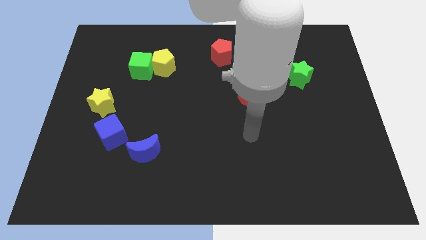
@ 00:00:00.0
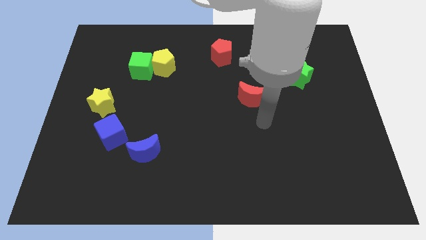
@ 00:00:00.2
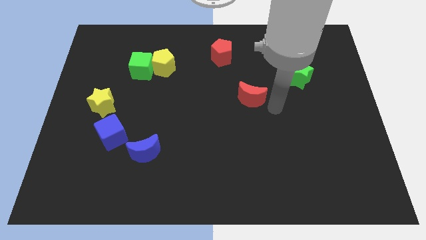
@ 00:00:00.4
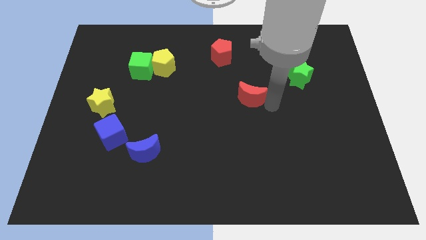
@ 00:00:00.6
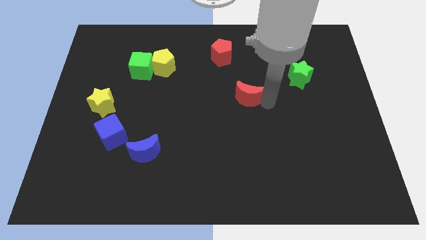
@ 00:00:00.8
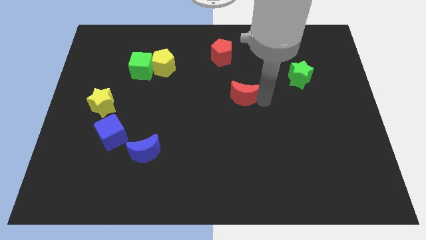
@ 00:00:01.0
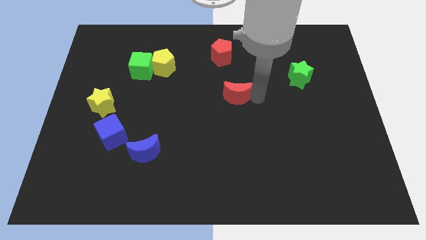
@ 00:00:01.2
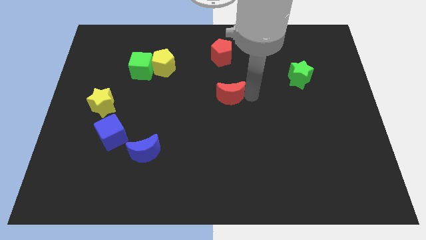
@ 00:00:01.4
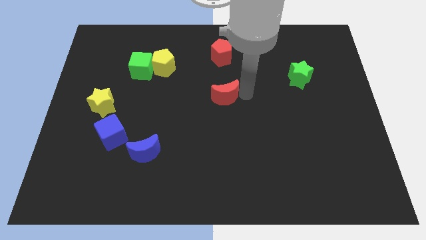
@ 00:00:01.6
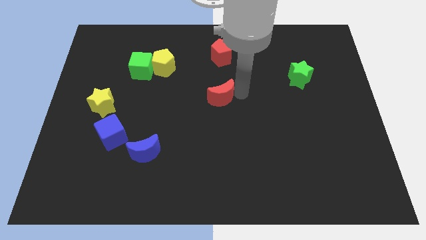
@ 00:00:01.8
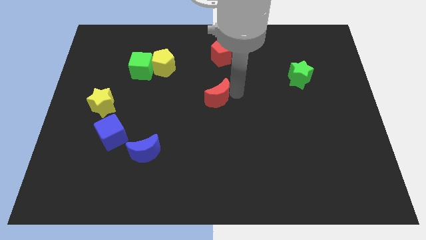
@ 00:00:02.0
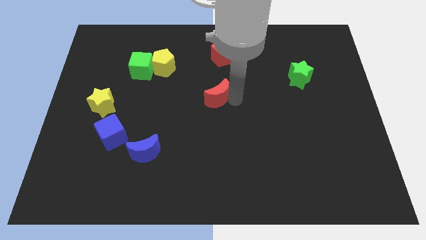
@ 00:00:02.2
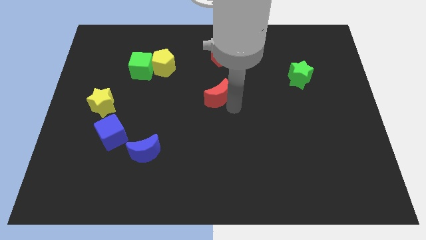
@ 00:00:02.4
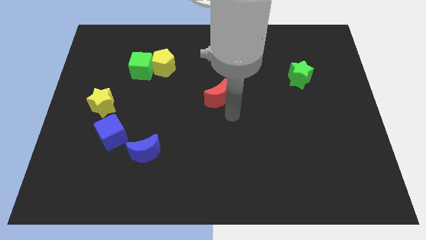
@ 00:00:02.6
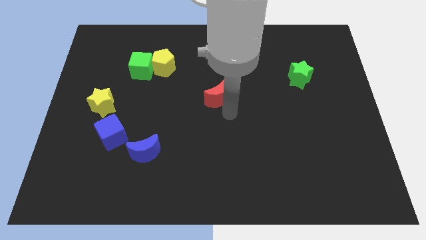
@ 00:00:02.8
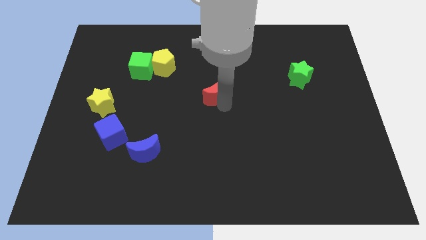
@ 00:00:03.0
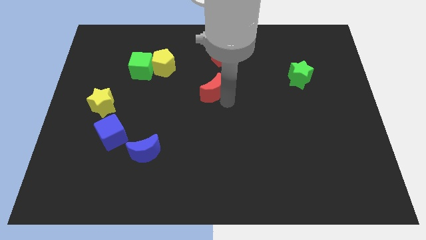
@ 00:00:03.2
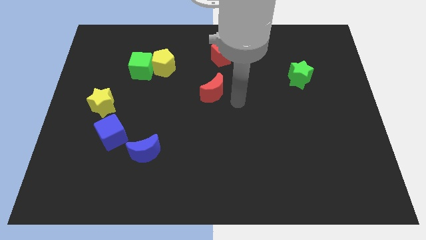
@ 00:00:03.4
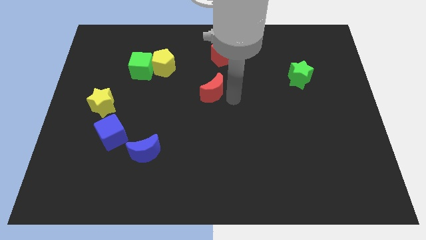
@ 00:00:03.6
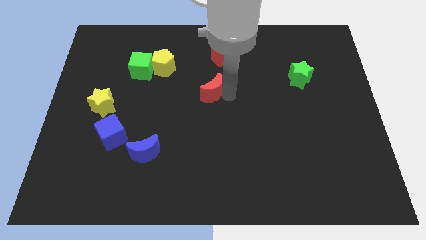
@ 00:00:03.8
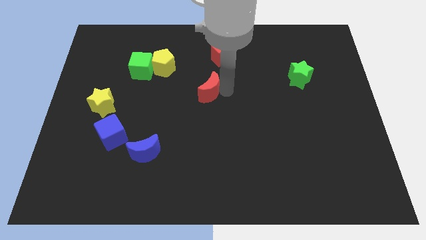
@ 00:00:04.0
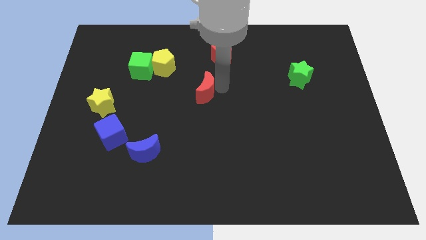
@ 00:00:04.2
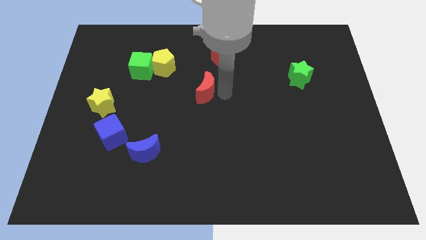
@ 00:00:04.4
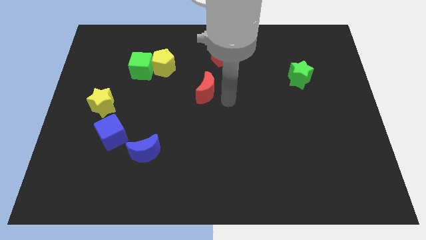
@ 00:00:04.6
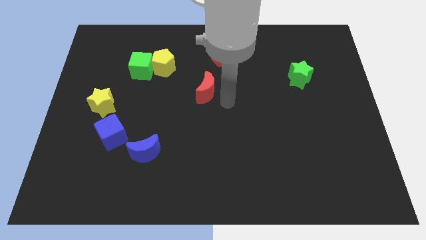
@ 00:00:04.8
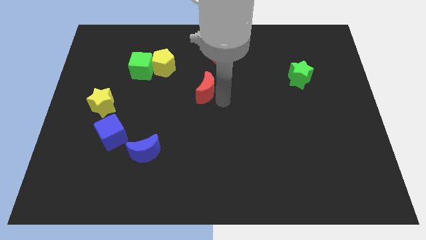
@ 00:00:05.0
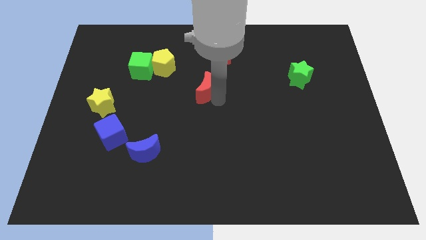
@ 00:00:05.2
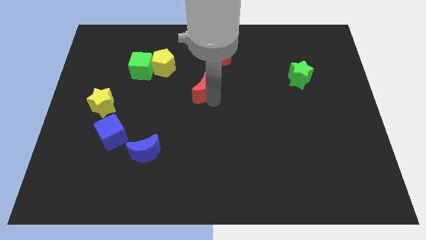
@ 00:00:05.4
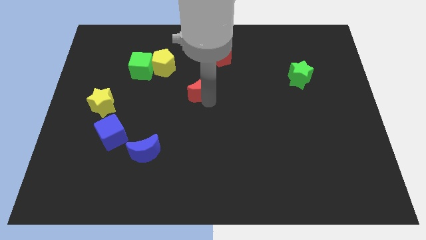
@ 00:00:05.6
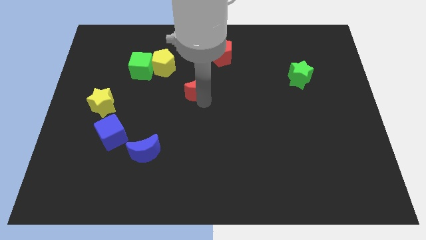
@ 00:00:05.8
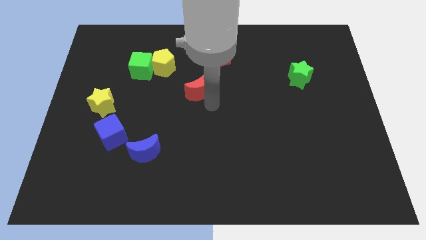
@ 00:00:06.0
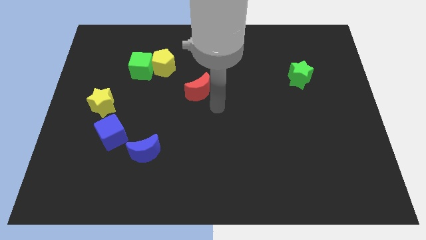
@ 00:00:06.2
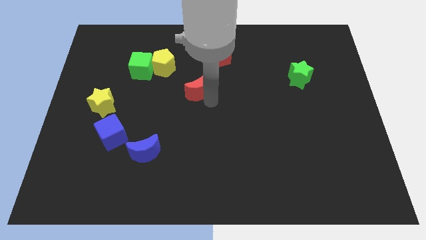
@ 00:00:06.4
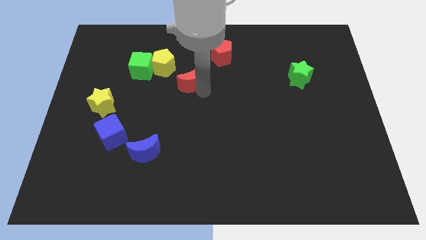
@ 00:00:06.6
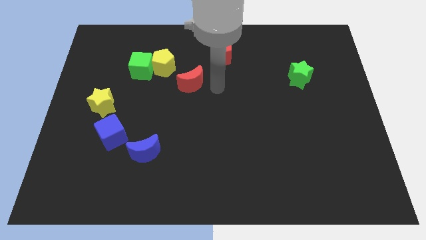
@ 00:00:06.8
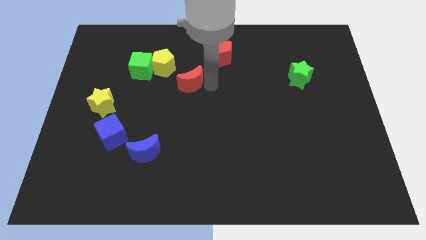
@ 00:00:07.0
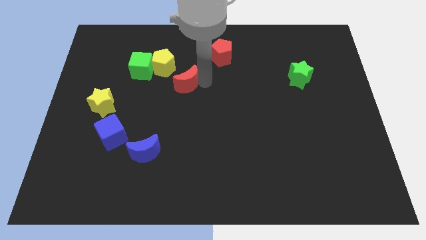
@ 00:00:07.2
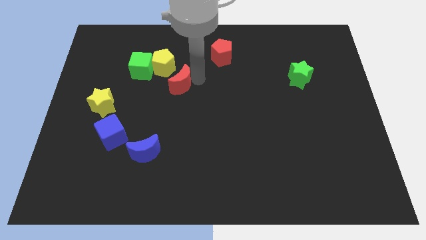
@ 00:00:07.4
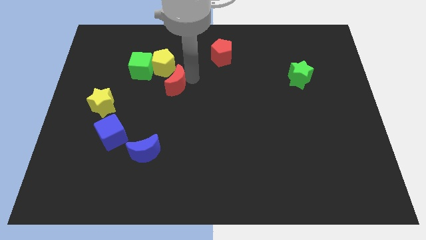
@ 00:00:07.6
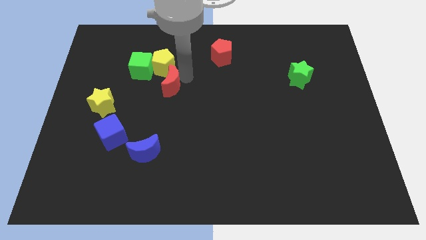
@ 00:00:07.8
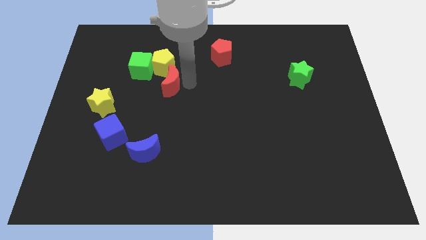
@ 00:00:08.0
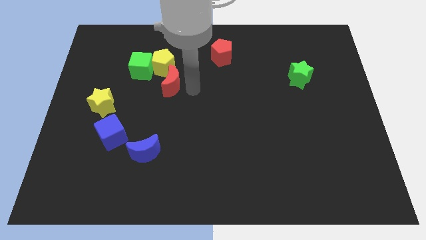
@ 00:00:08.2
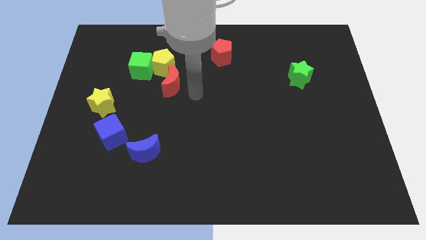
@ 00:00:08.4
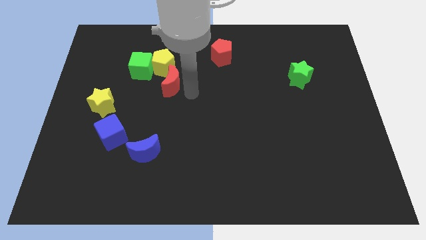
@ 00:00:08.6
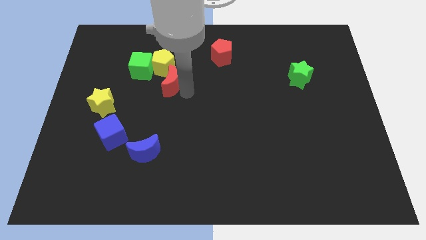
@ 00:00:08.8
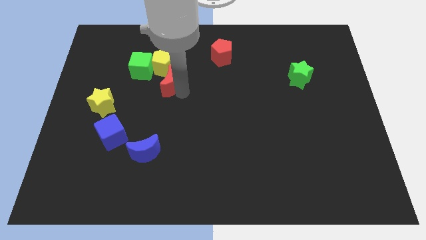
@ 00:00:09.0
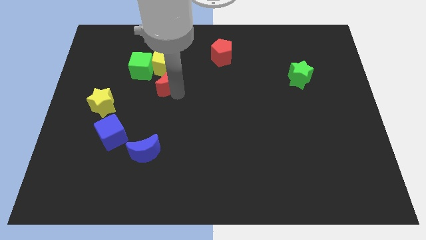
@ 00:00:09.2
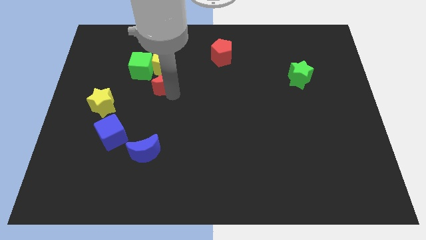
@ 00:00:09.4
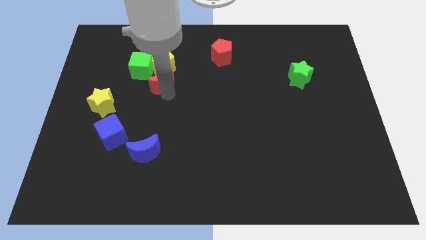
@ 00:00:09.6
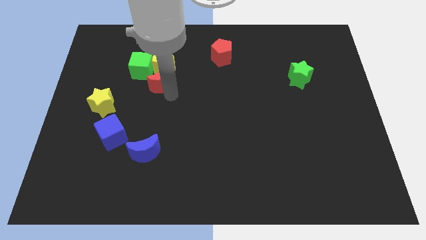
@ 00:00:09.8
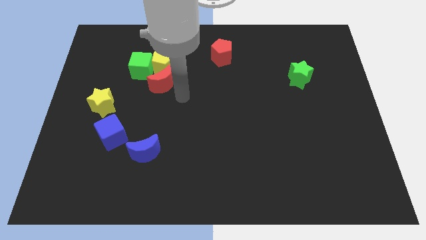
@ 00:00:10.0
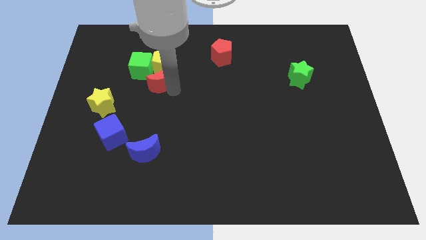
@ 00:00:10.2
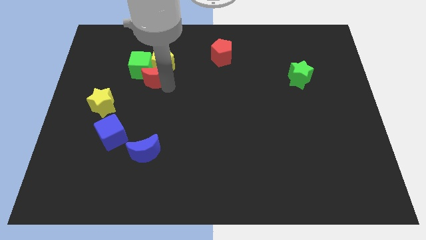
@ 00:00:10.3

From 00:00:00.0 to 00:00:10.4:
push the red moon to the green cube

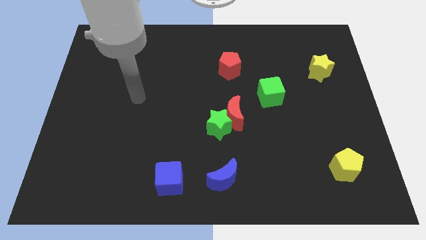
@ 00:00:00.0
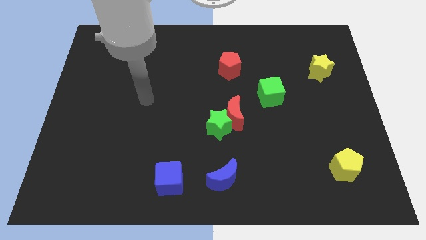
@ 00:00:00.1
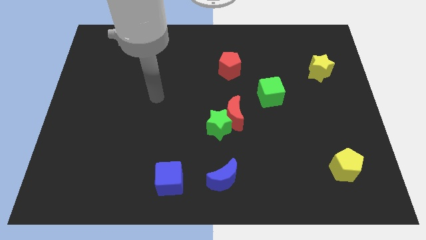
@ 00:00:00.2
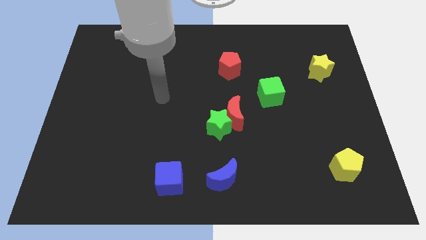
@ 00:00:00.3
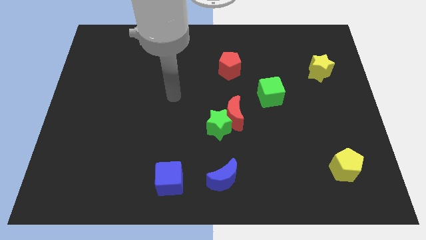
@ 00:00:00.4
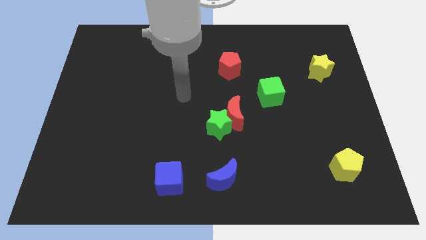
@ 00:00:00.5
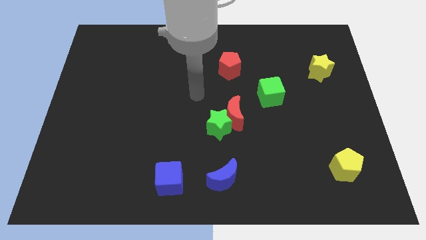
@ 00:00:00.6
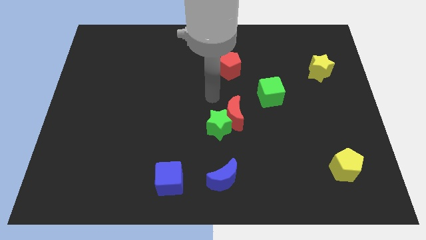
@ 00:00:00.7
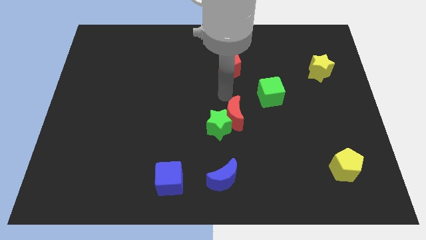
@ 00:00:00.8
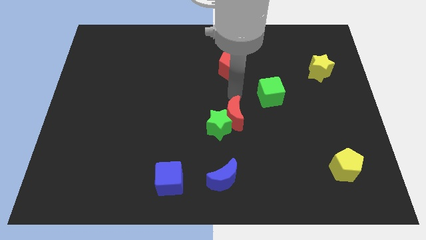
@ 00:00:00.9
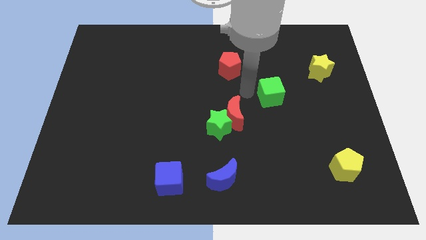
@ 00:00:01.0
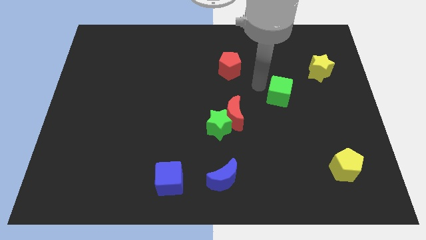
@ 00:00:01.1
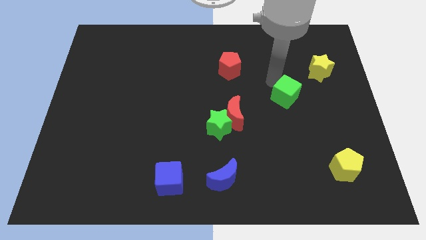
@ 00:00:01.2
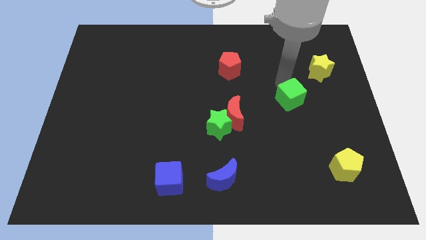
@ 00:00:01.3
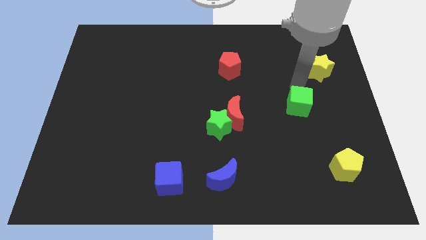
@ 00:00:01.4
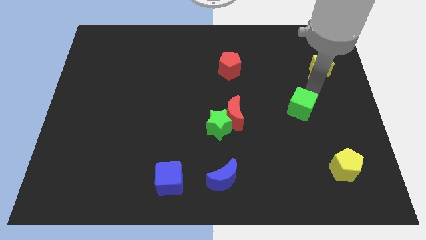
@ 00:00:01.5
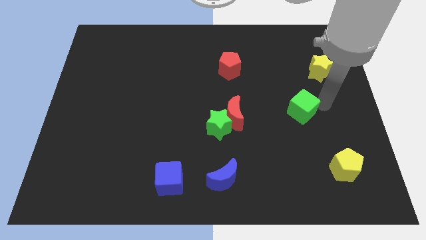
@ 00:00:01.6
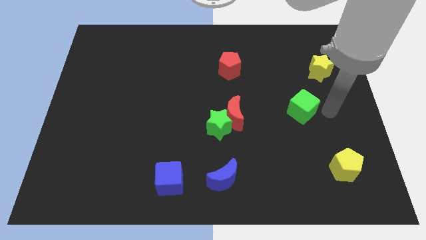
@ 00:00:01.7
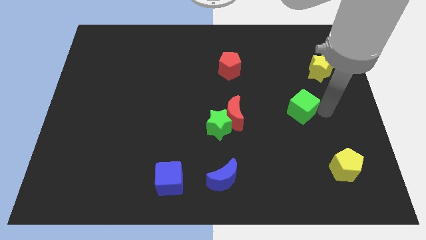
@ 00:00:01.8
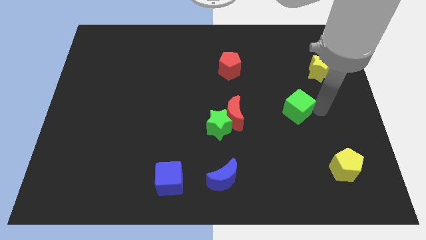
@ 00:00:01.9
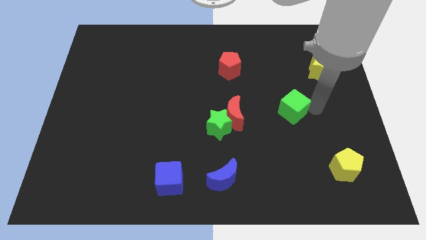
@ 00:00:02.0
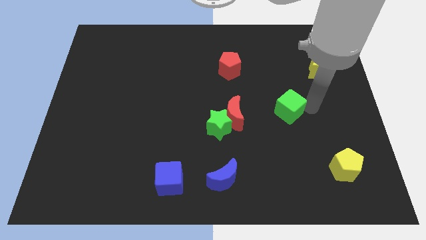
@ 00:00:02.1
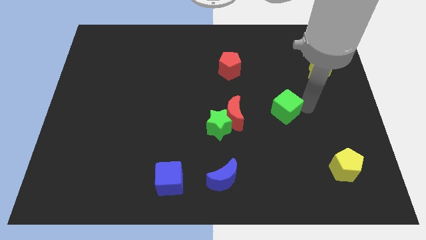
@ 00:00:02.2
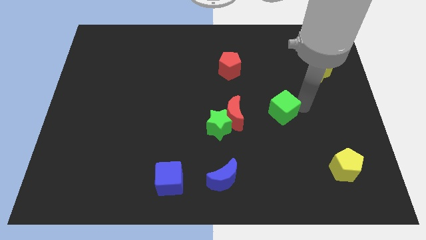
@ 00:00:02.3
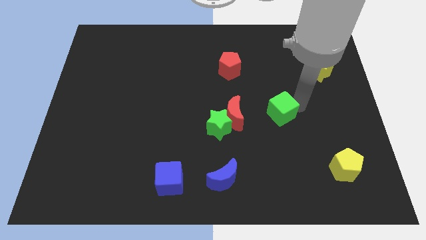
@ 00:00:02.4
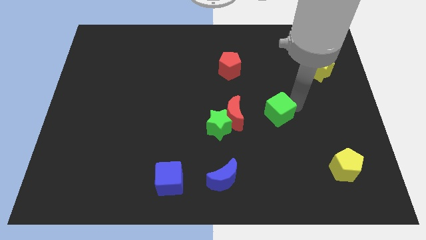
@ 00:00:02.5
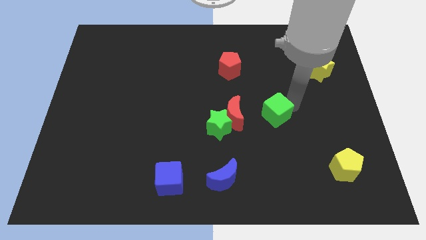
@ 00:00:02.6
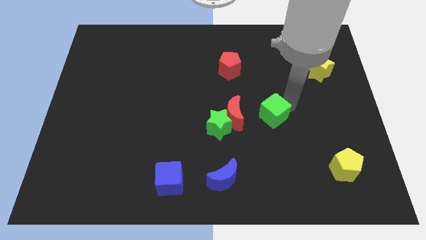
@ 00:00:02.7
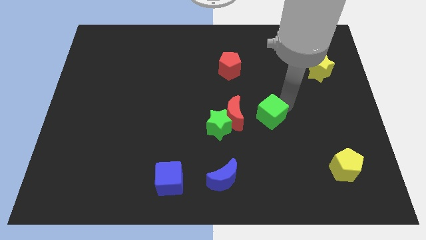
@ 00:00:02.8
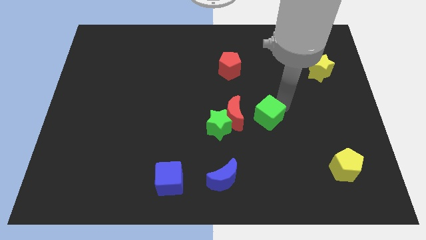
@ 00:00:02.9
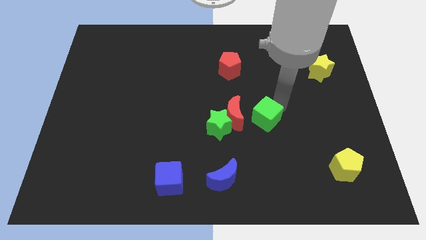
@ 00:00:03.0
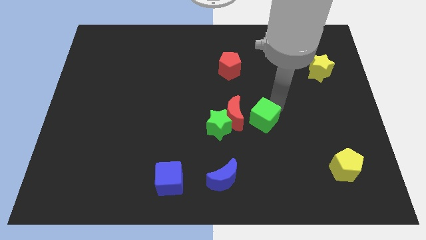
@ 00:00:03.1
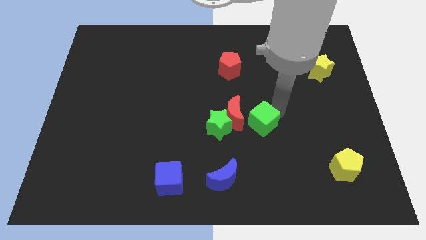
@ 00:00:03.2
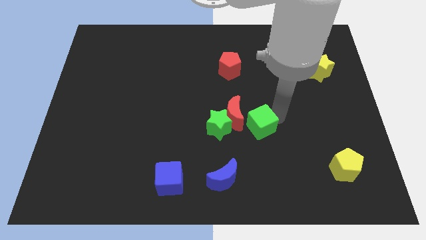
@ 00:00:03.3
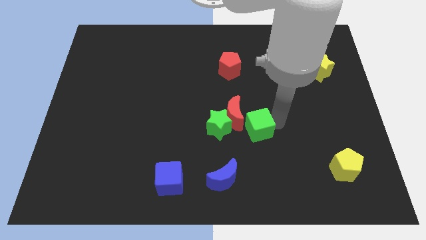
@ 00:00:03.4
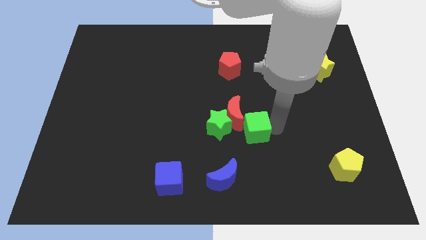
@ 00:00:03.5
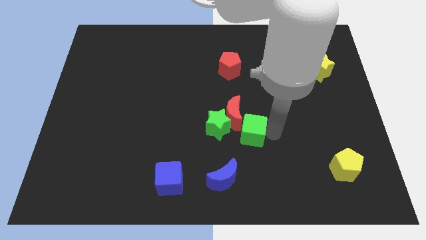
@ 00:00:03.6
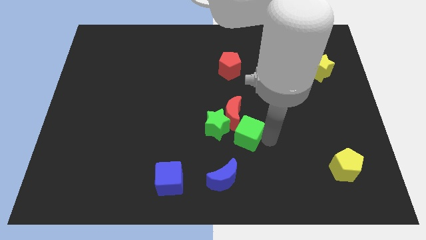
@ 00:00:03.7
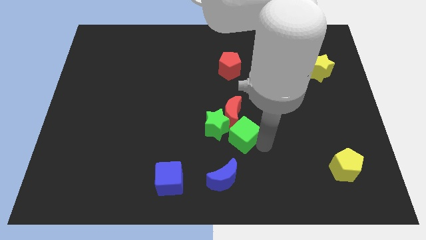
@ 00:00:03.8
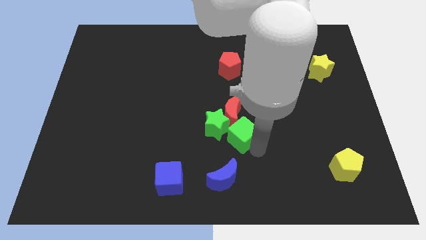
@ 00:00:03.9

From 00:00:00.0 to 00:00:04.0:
push the green cube close to the green star
